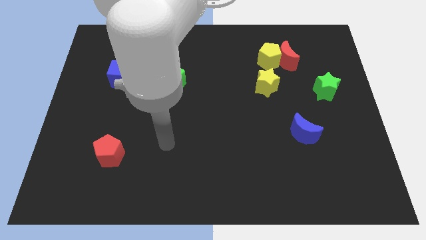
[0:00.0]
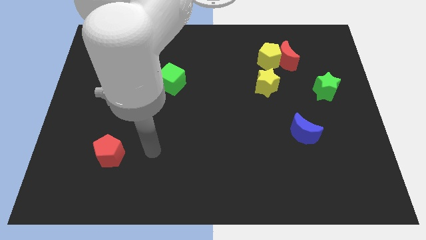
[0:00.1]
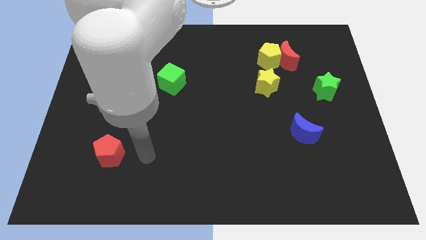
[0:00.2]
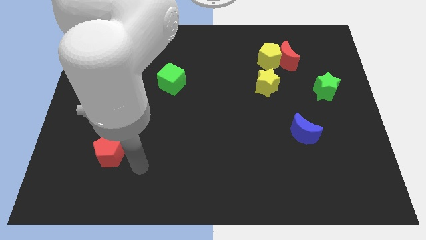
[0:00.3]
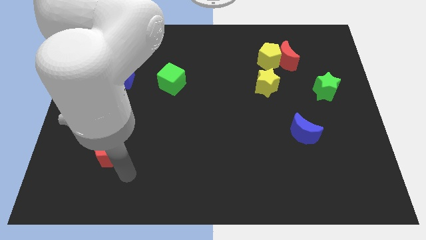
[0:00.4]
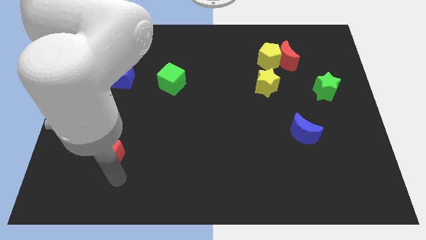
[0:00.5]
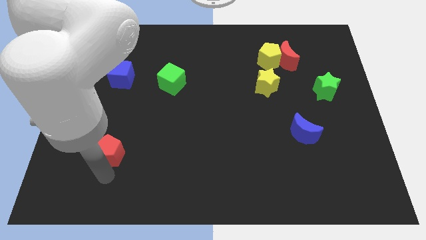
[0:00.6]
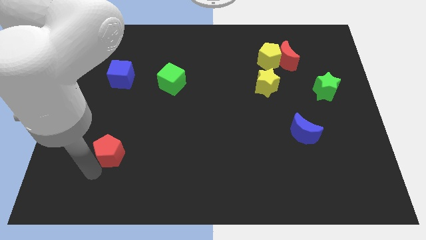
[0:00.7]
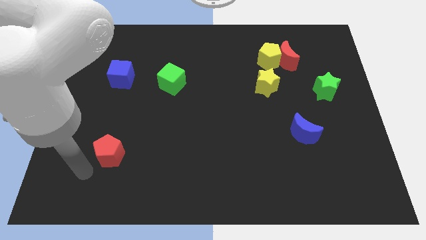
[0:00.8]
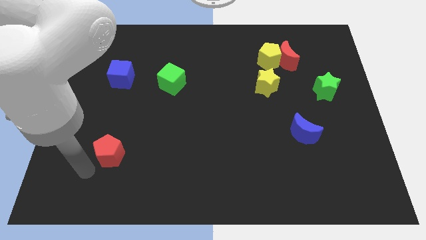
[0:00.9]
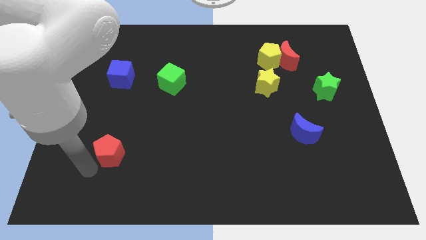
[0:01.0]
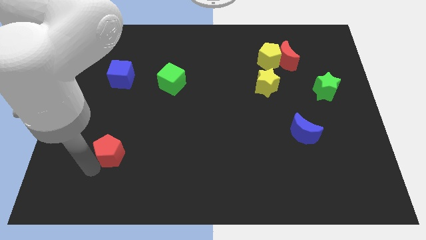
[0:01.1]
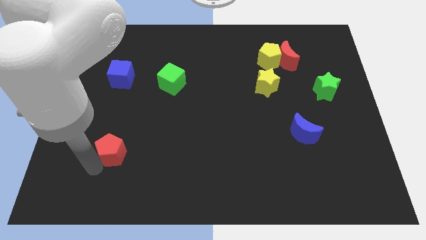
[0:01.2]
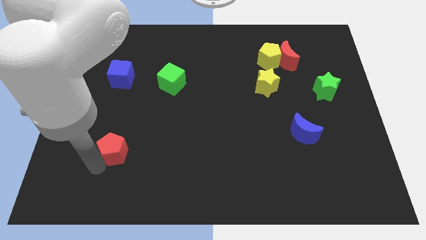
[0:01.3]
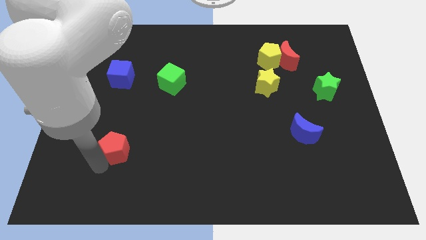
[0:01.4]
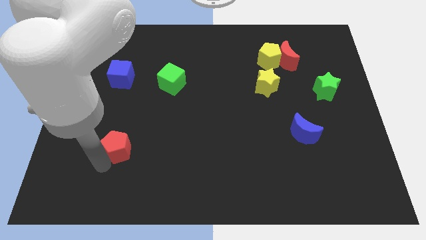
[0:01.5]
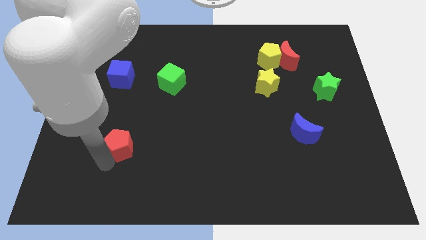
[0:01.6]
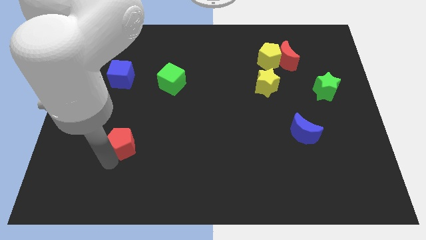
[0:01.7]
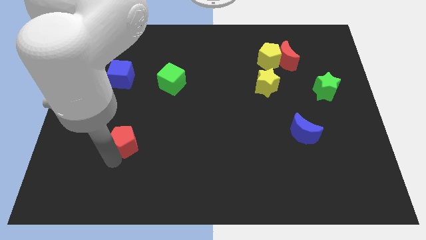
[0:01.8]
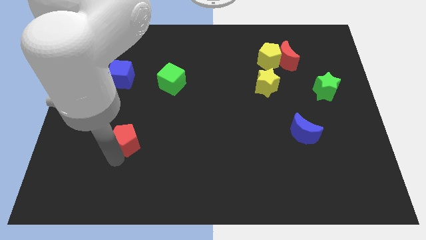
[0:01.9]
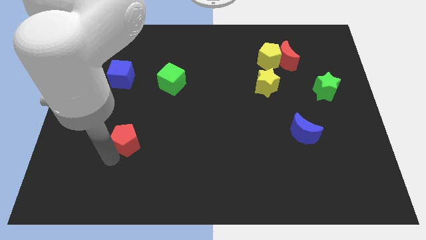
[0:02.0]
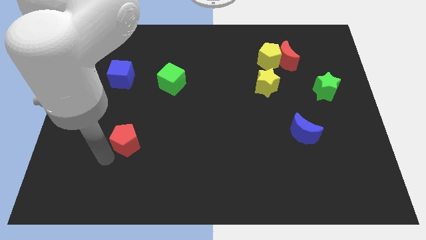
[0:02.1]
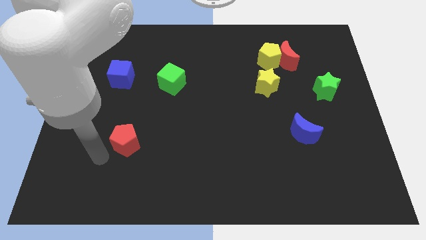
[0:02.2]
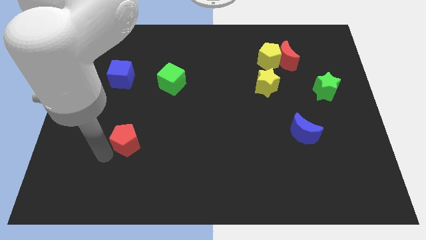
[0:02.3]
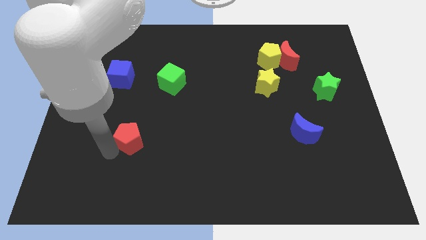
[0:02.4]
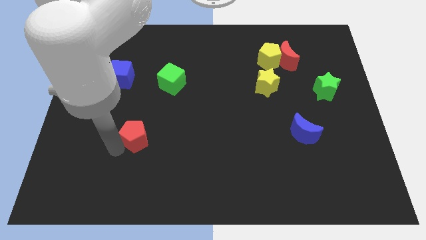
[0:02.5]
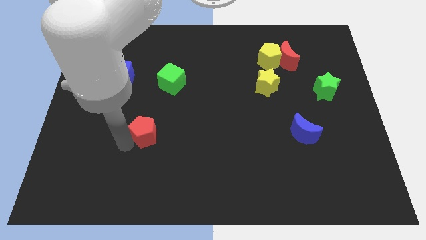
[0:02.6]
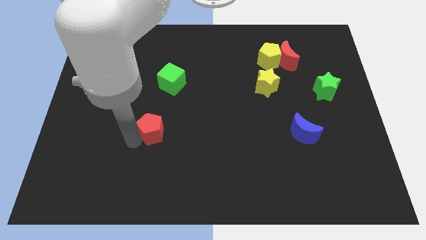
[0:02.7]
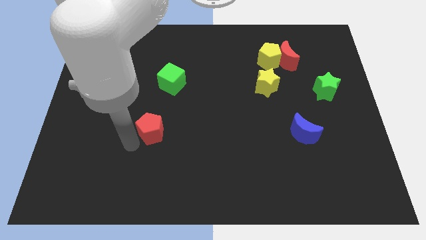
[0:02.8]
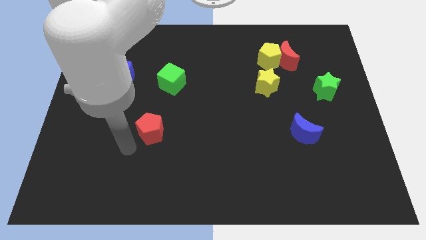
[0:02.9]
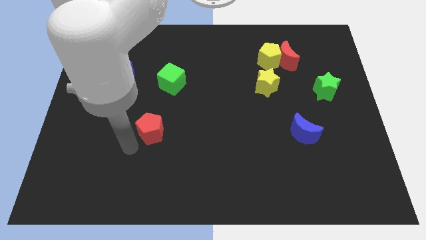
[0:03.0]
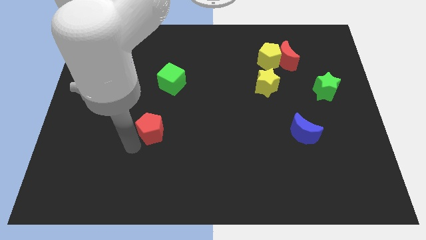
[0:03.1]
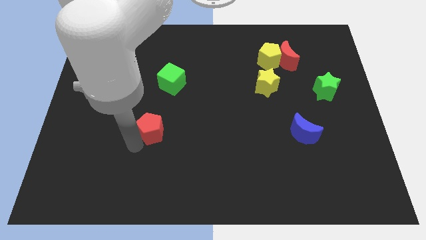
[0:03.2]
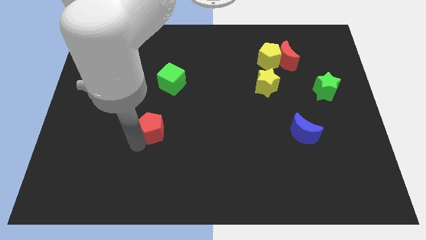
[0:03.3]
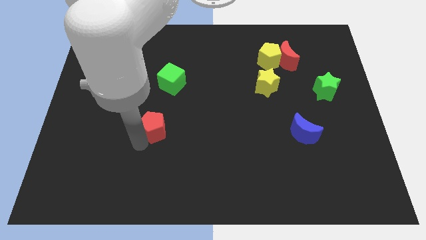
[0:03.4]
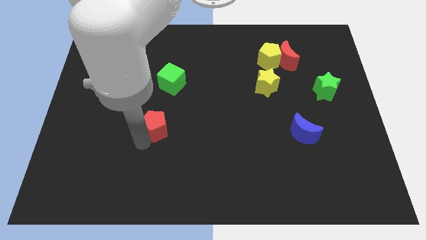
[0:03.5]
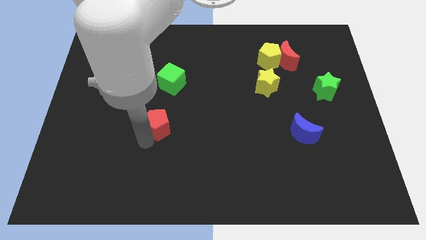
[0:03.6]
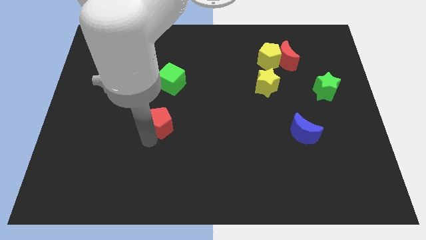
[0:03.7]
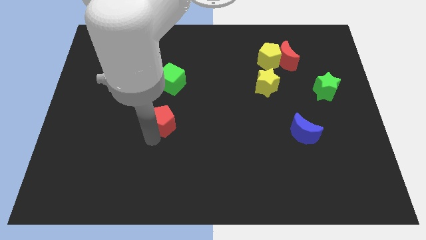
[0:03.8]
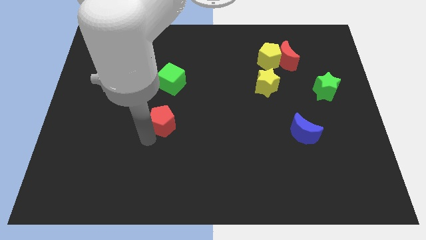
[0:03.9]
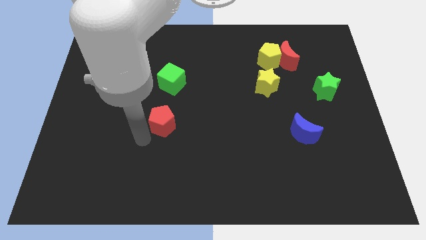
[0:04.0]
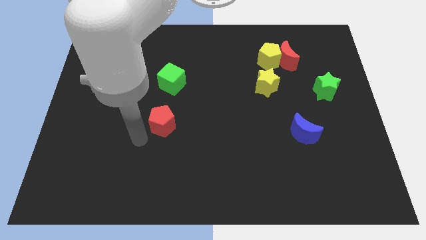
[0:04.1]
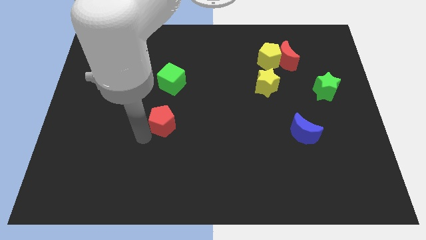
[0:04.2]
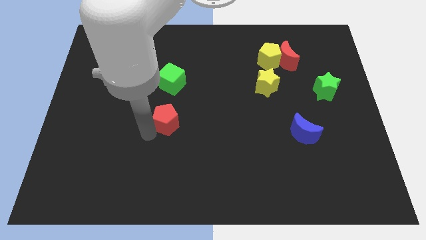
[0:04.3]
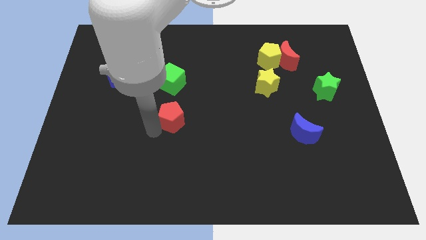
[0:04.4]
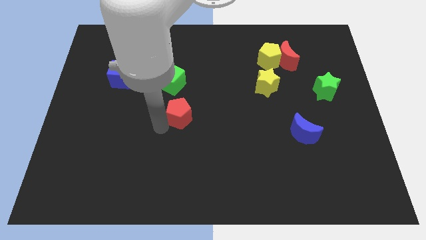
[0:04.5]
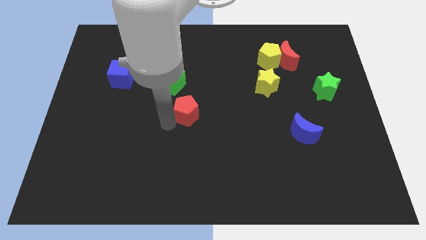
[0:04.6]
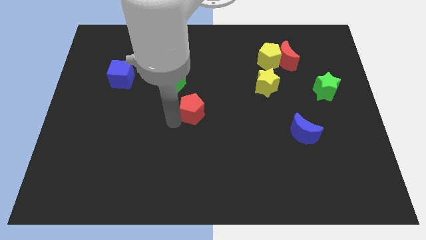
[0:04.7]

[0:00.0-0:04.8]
push the red pentagon upwards and to the right

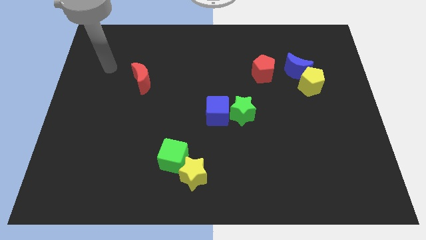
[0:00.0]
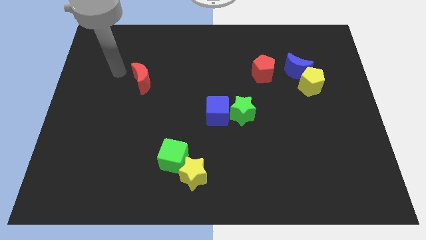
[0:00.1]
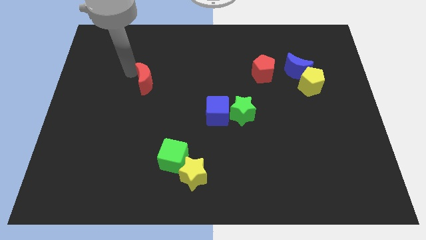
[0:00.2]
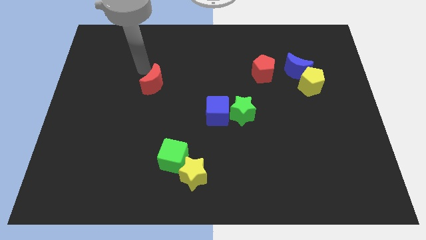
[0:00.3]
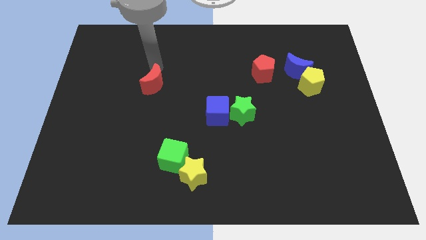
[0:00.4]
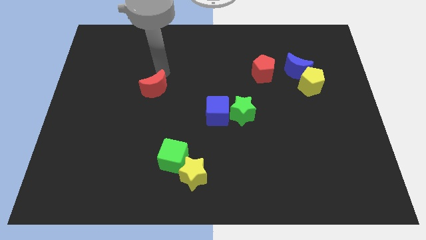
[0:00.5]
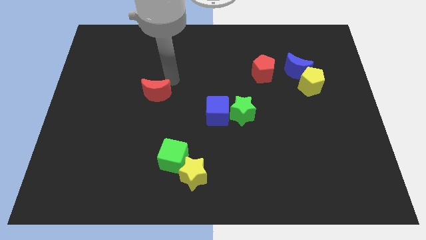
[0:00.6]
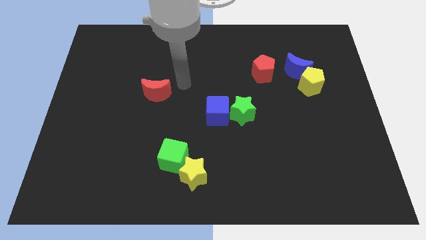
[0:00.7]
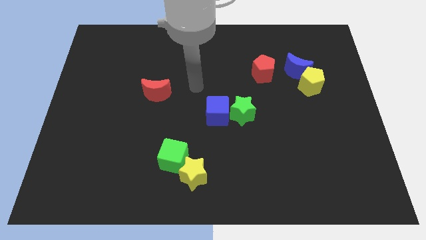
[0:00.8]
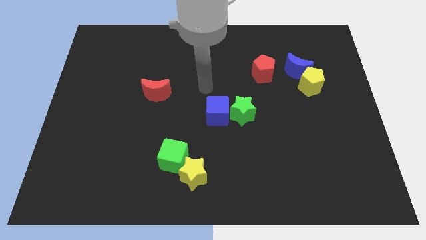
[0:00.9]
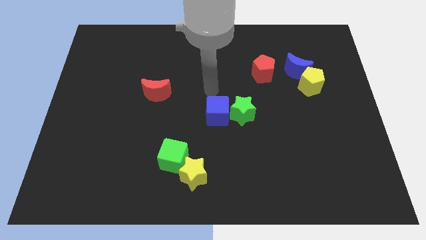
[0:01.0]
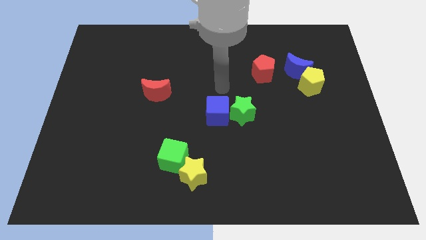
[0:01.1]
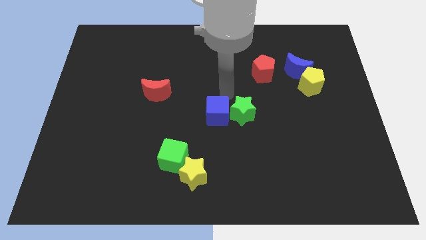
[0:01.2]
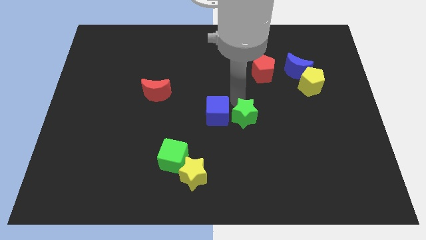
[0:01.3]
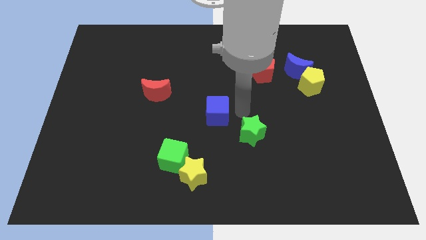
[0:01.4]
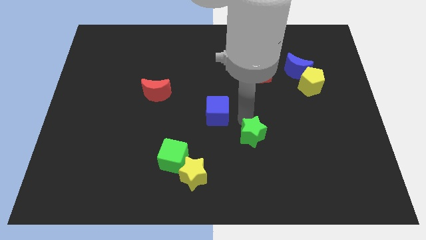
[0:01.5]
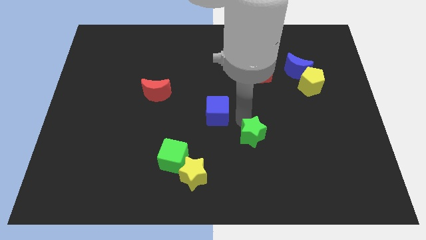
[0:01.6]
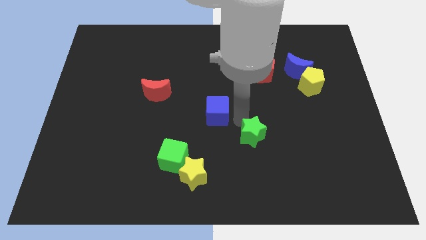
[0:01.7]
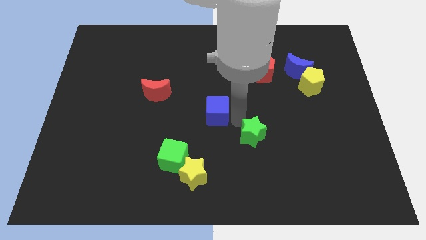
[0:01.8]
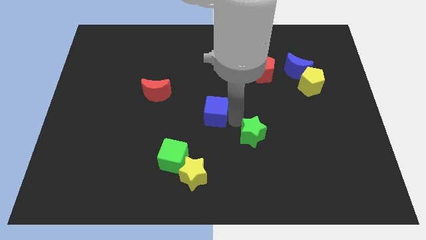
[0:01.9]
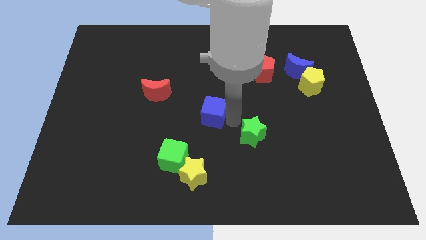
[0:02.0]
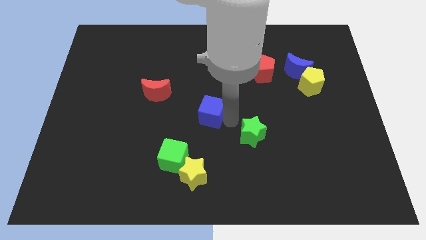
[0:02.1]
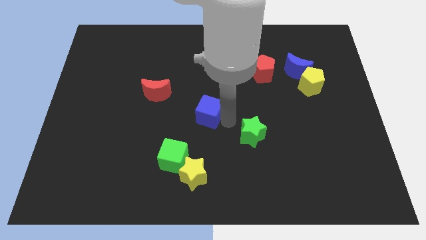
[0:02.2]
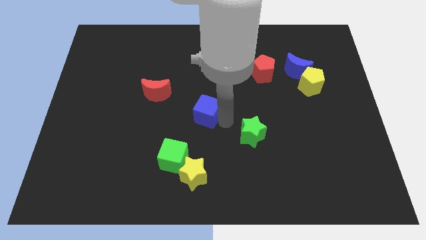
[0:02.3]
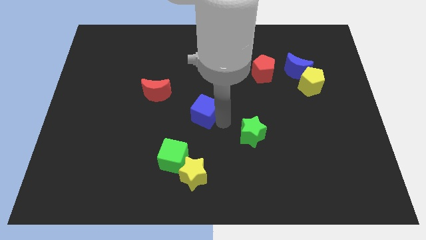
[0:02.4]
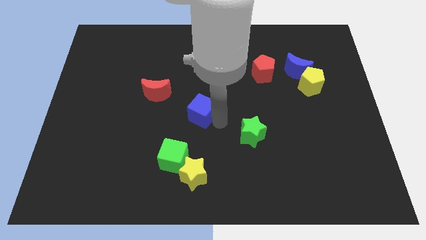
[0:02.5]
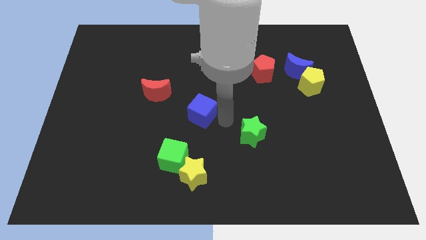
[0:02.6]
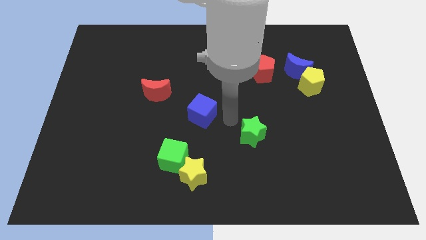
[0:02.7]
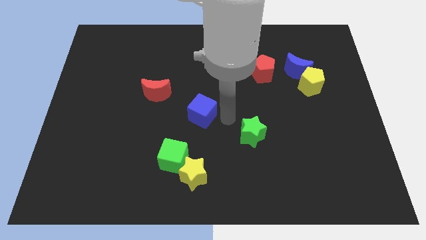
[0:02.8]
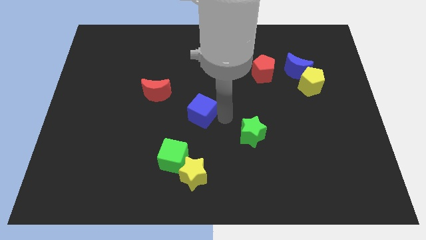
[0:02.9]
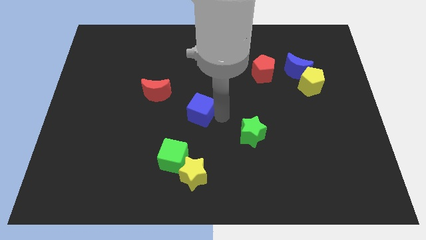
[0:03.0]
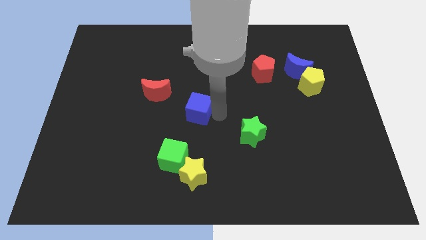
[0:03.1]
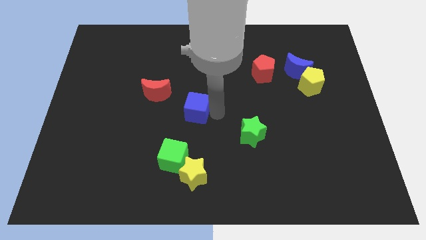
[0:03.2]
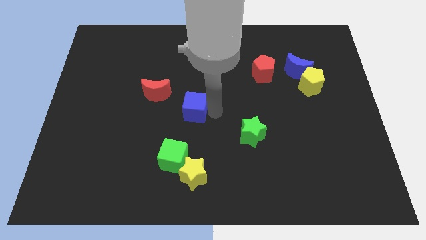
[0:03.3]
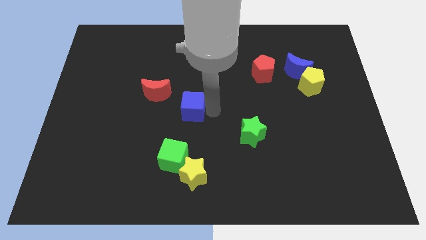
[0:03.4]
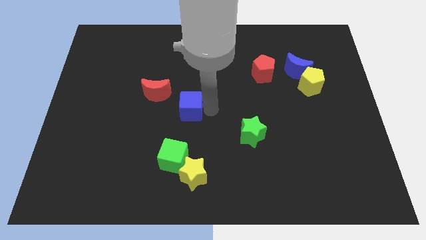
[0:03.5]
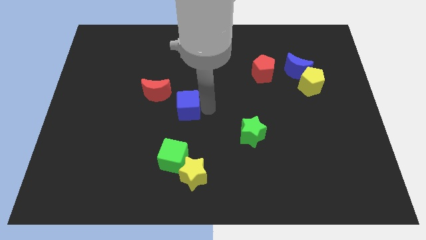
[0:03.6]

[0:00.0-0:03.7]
slide the blue cube a bit to the left
